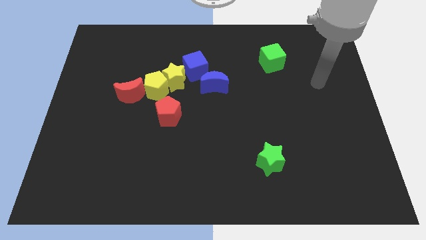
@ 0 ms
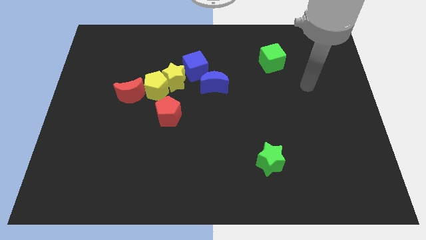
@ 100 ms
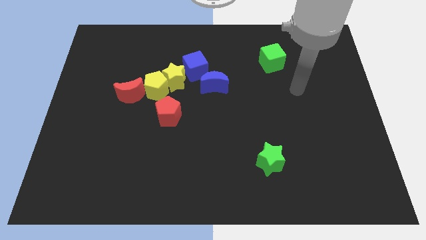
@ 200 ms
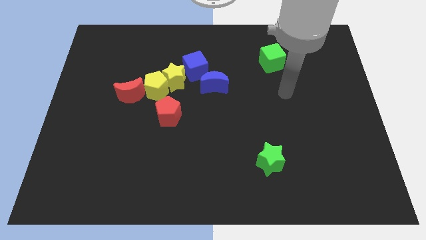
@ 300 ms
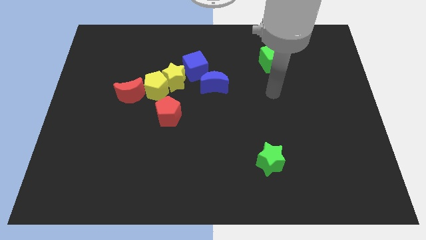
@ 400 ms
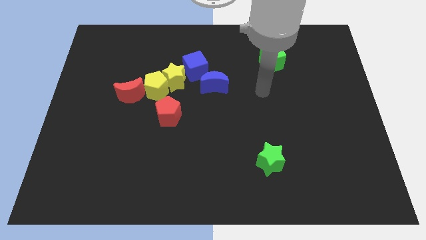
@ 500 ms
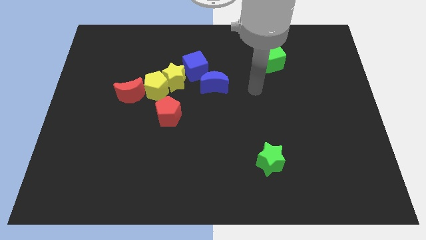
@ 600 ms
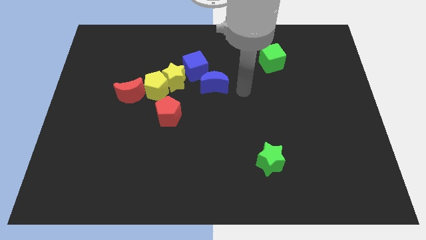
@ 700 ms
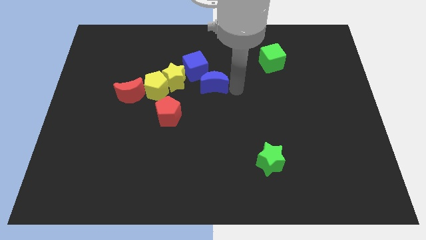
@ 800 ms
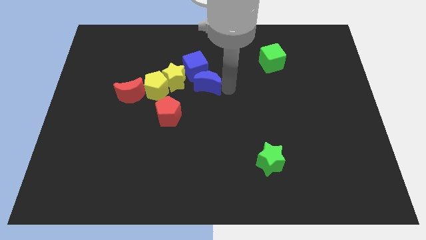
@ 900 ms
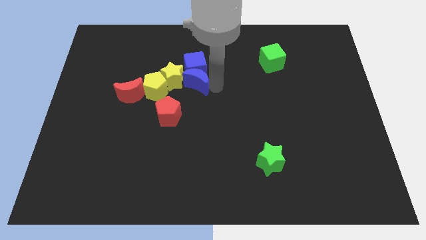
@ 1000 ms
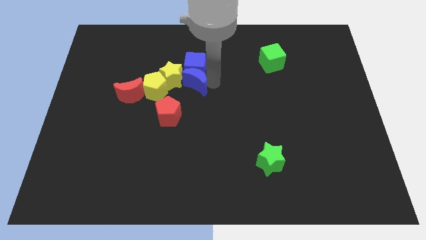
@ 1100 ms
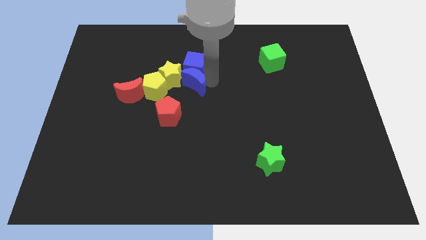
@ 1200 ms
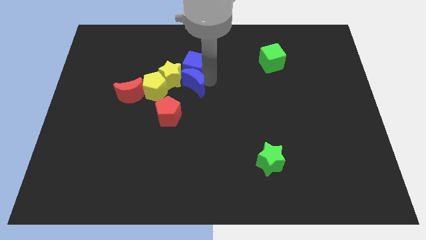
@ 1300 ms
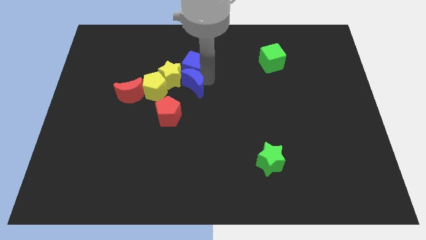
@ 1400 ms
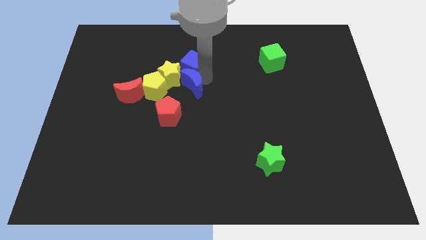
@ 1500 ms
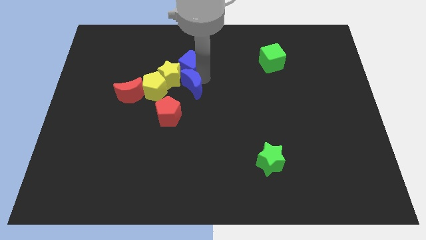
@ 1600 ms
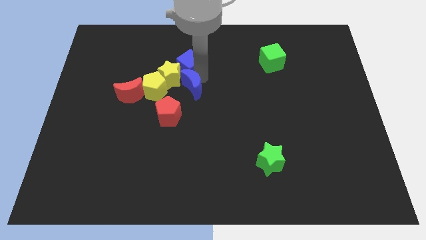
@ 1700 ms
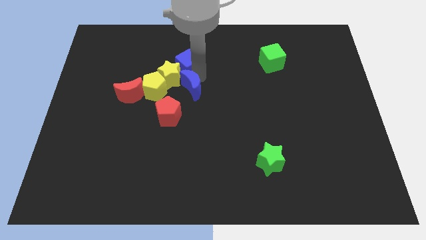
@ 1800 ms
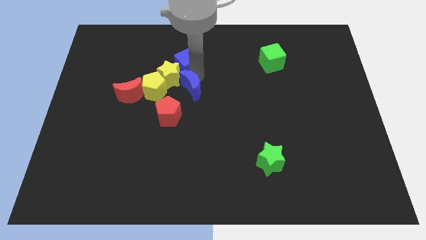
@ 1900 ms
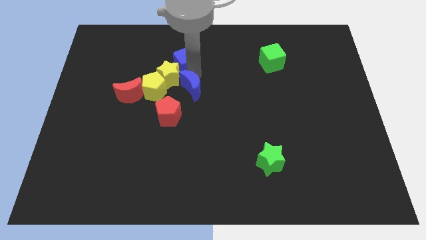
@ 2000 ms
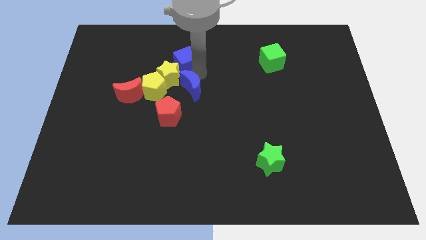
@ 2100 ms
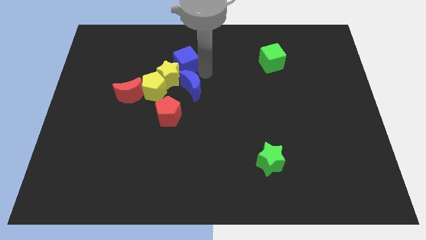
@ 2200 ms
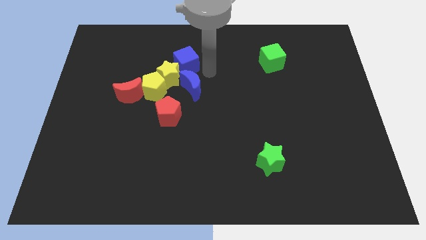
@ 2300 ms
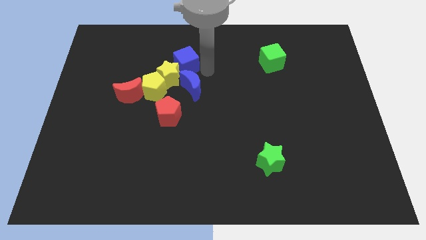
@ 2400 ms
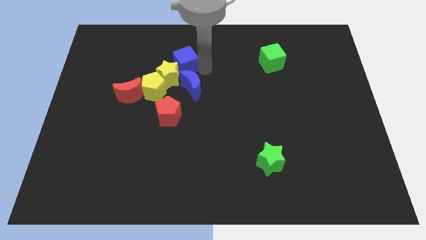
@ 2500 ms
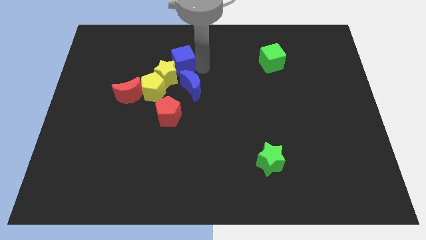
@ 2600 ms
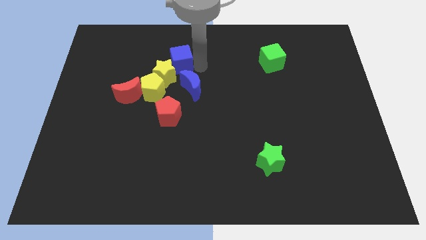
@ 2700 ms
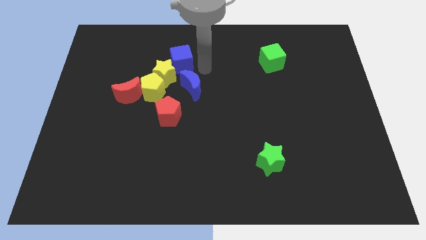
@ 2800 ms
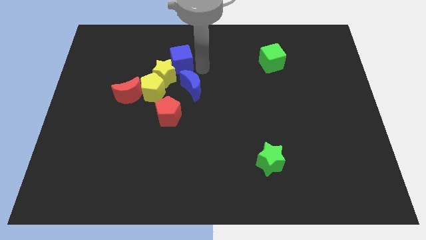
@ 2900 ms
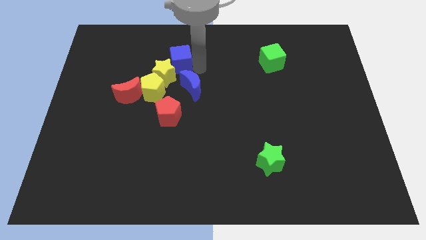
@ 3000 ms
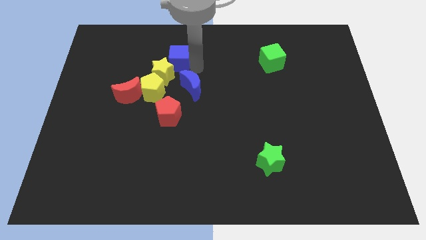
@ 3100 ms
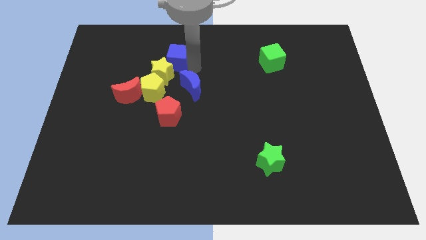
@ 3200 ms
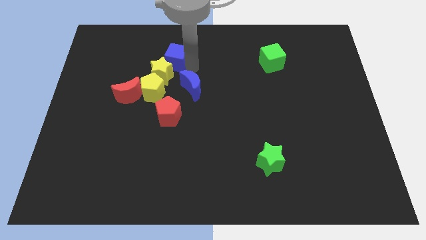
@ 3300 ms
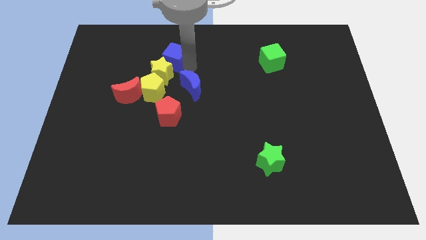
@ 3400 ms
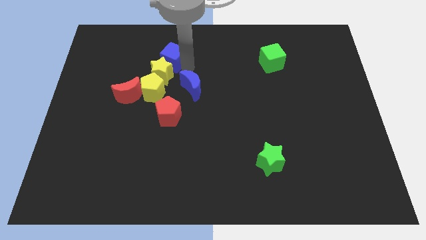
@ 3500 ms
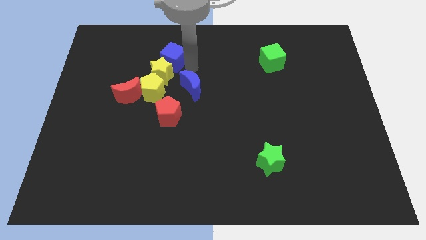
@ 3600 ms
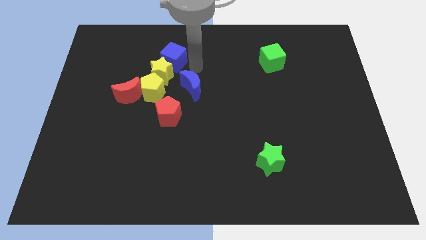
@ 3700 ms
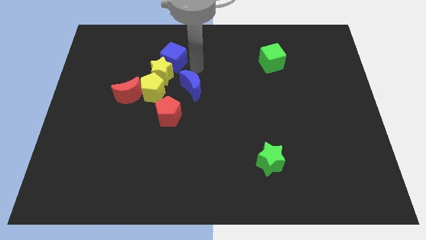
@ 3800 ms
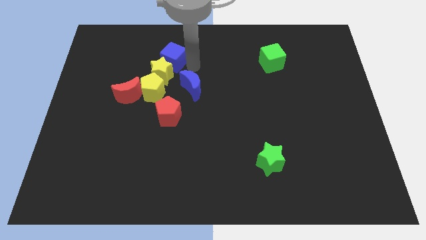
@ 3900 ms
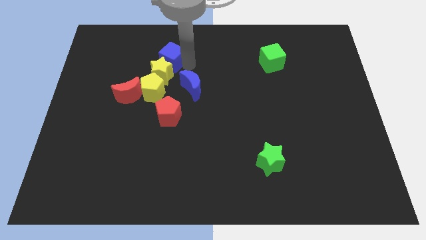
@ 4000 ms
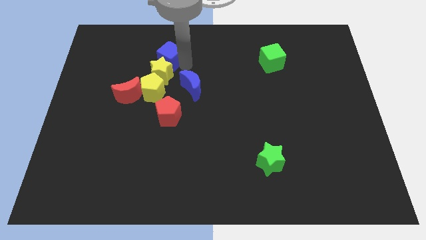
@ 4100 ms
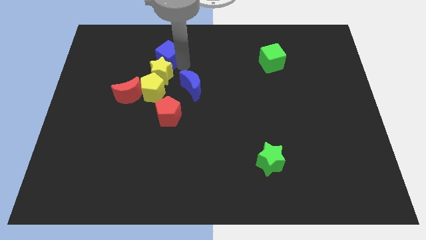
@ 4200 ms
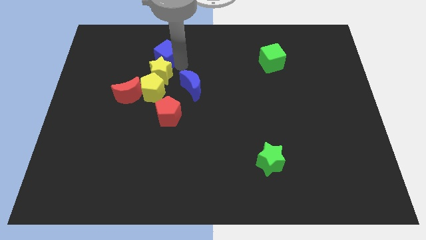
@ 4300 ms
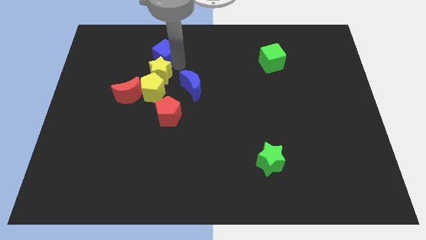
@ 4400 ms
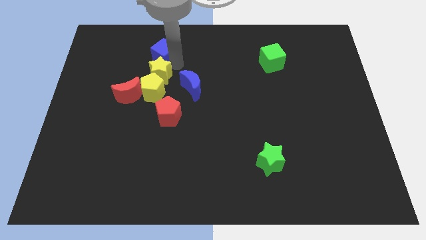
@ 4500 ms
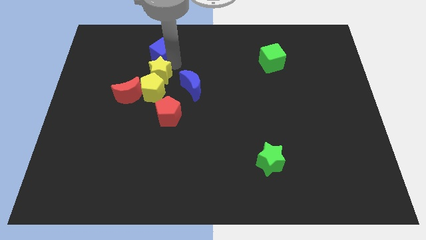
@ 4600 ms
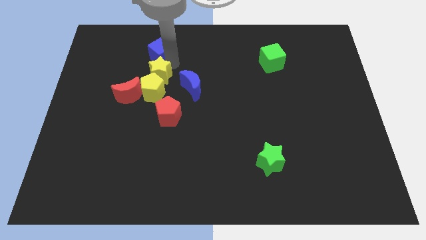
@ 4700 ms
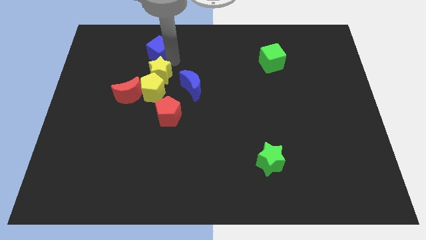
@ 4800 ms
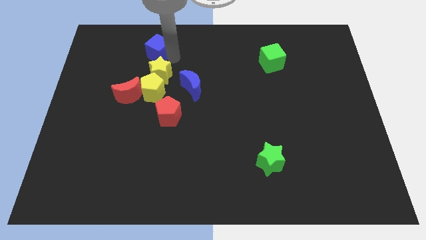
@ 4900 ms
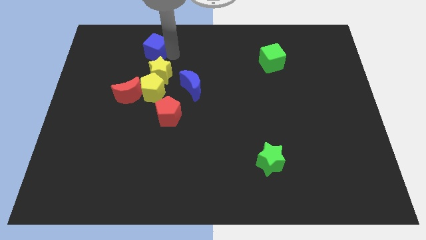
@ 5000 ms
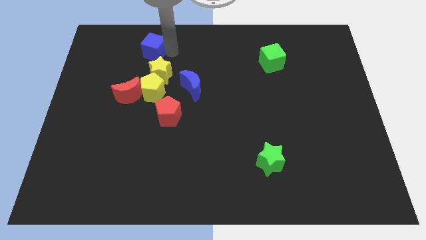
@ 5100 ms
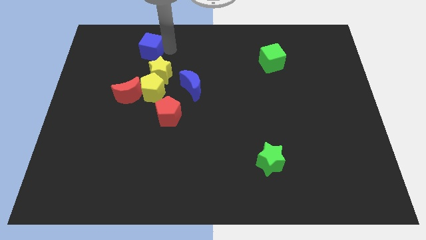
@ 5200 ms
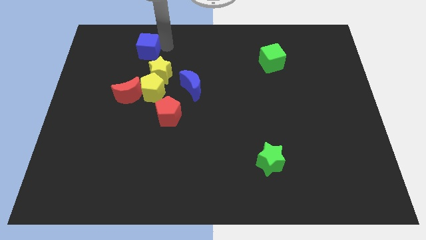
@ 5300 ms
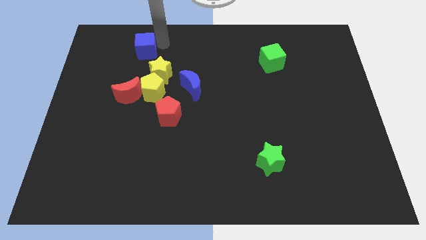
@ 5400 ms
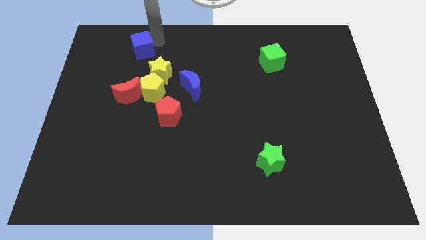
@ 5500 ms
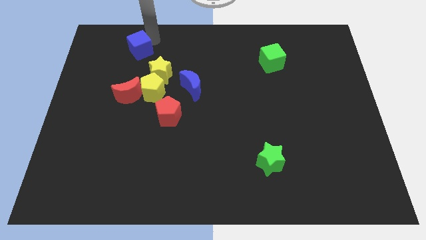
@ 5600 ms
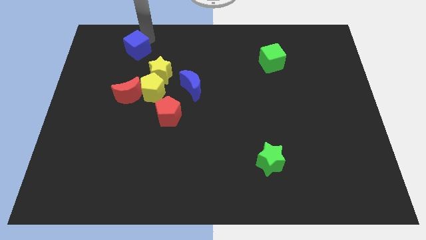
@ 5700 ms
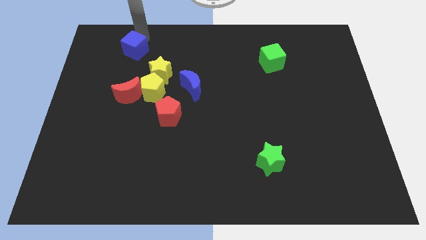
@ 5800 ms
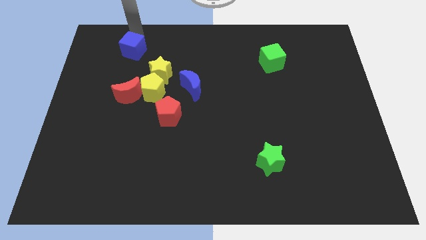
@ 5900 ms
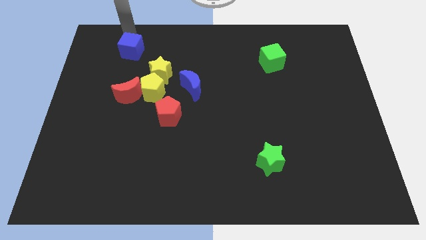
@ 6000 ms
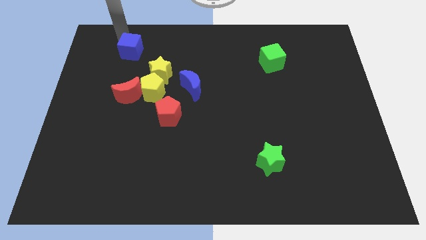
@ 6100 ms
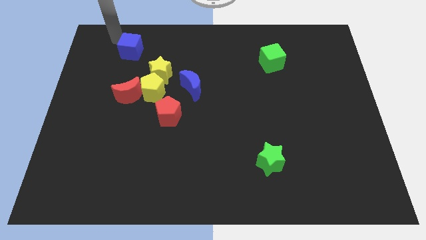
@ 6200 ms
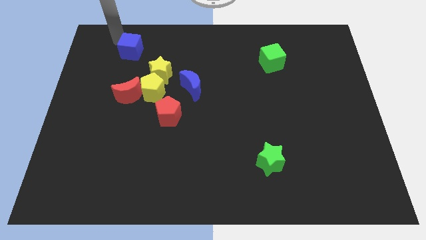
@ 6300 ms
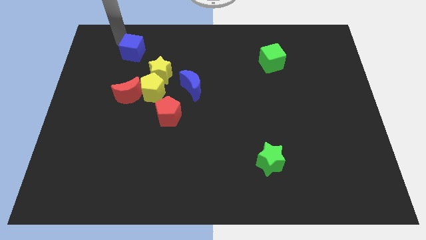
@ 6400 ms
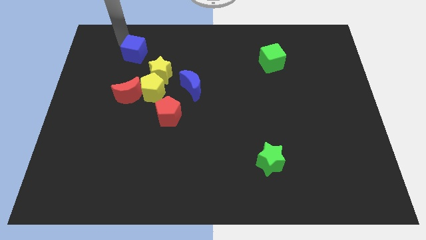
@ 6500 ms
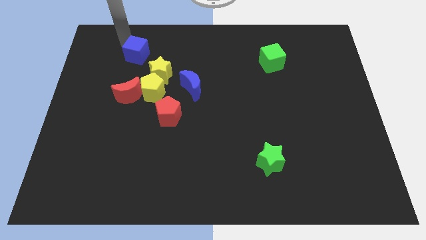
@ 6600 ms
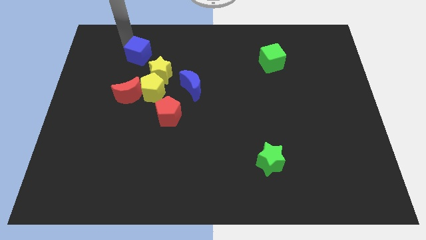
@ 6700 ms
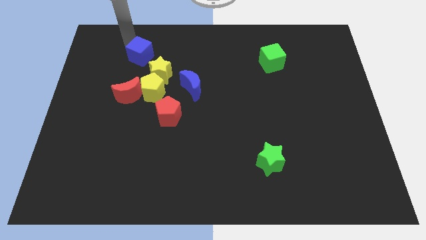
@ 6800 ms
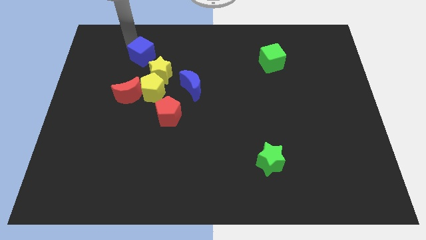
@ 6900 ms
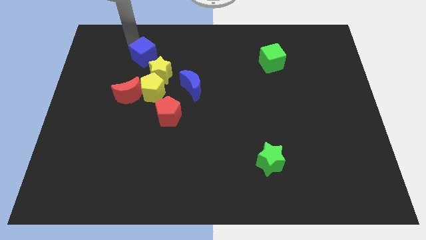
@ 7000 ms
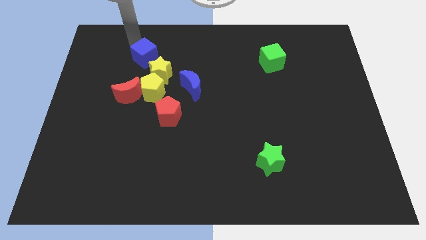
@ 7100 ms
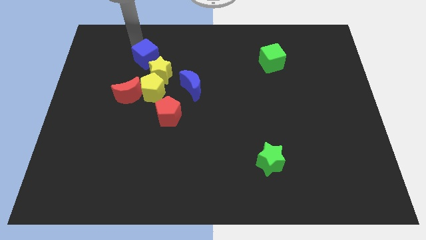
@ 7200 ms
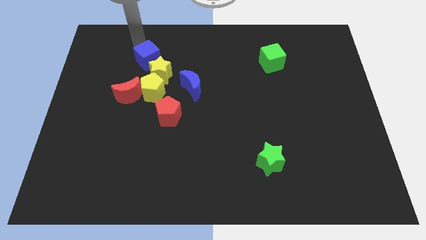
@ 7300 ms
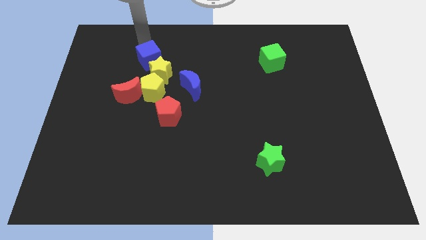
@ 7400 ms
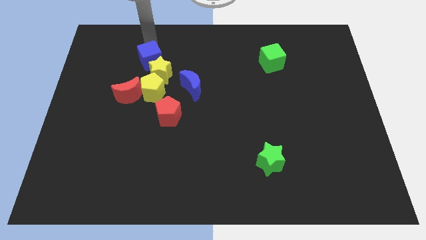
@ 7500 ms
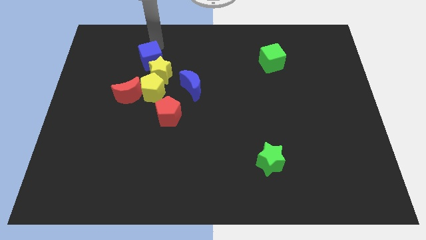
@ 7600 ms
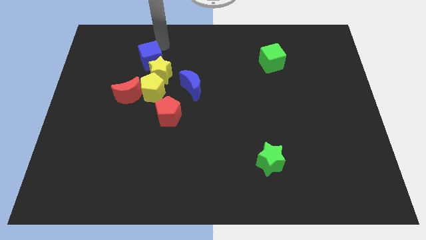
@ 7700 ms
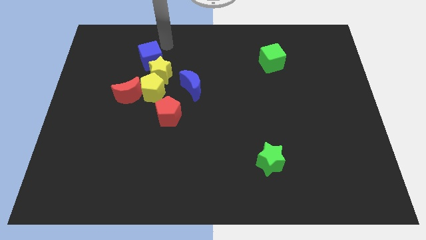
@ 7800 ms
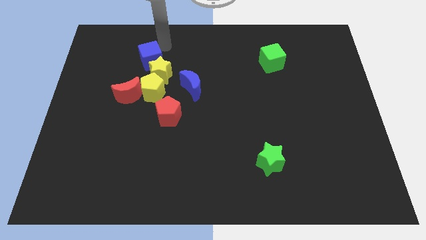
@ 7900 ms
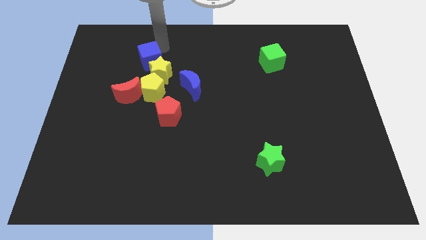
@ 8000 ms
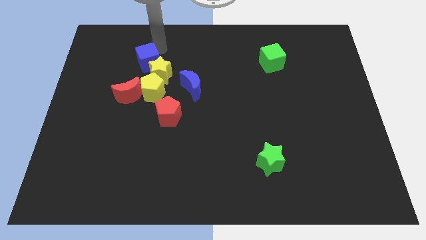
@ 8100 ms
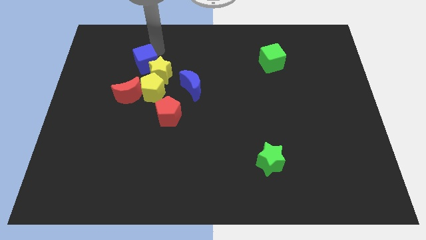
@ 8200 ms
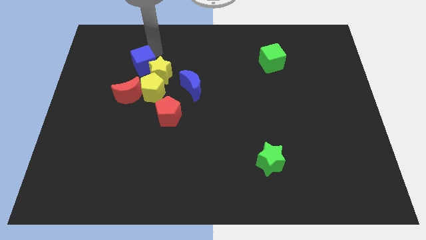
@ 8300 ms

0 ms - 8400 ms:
move the blue cube to the top left of the yellow pentagon
